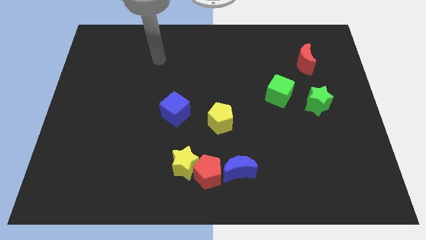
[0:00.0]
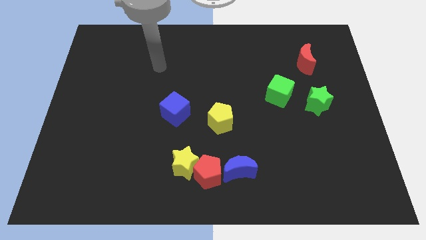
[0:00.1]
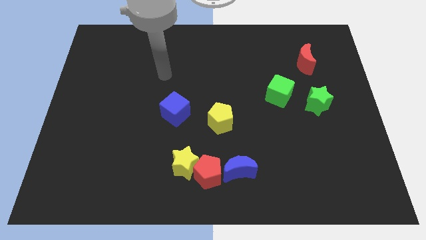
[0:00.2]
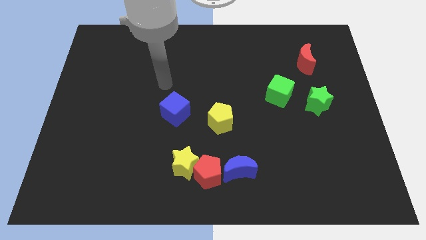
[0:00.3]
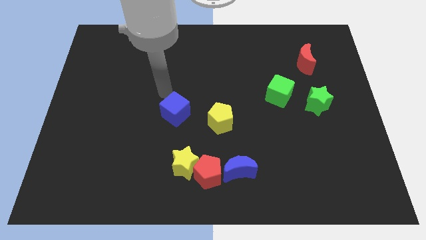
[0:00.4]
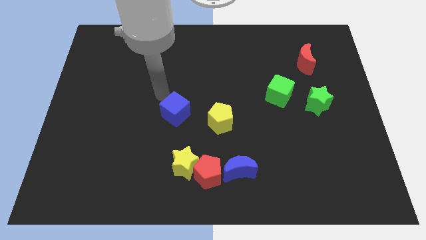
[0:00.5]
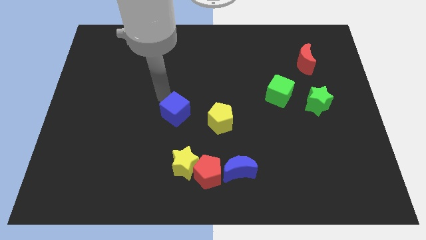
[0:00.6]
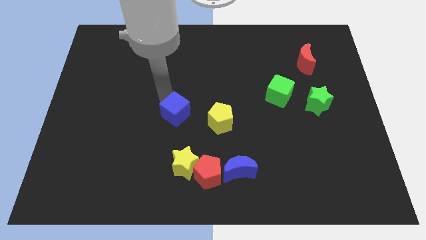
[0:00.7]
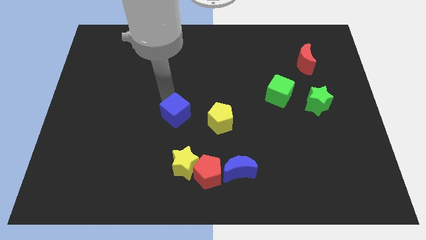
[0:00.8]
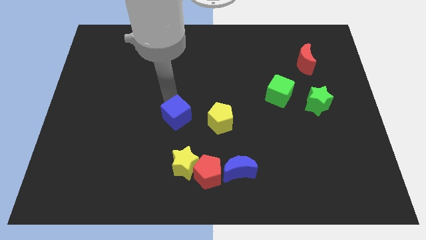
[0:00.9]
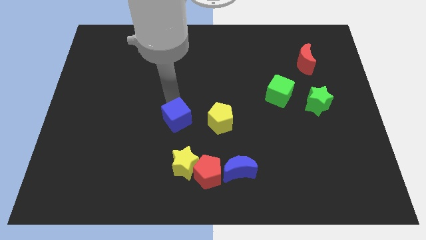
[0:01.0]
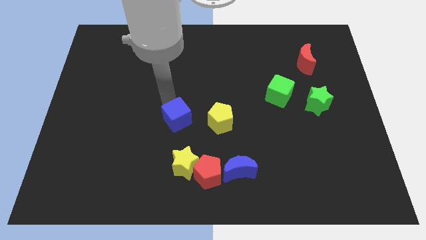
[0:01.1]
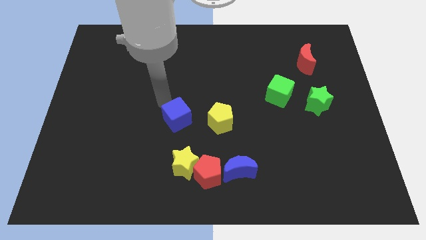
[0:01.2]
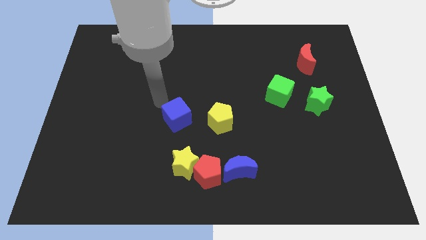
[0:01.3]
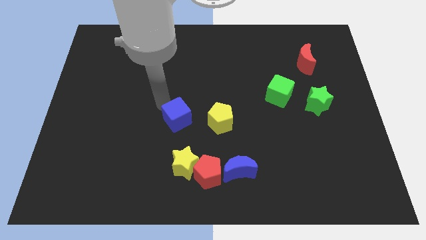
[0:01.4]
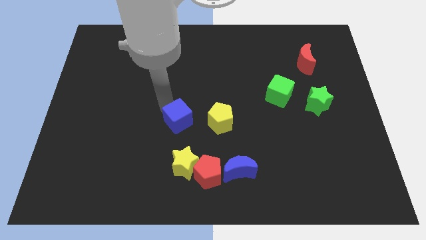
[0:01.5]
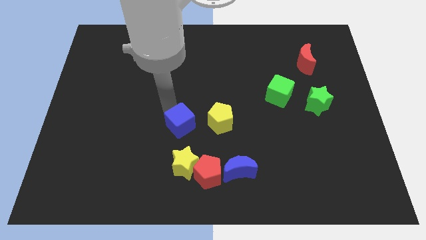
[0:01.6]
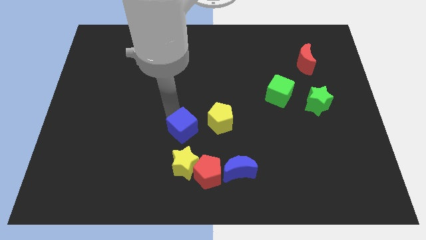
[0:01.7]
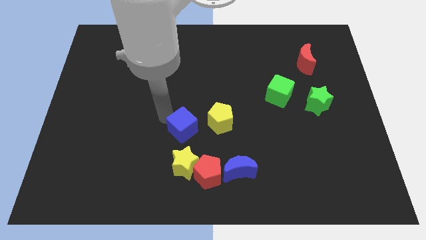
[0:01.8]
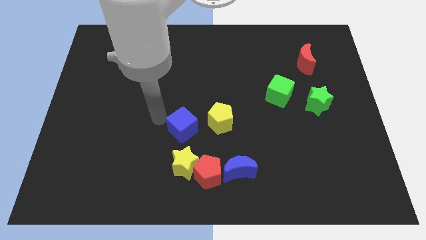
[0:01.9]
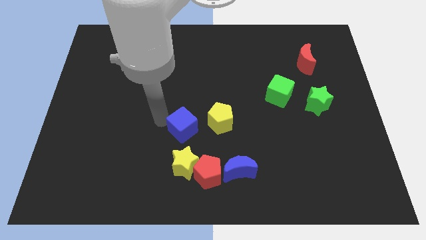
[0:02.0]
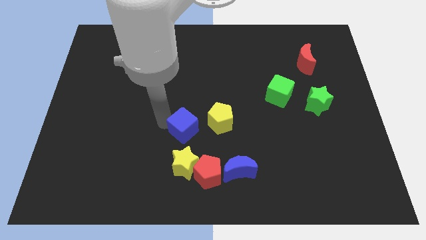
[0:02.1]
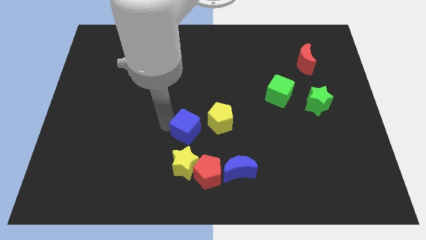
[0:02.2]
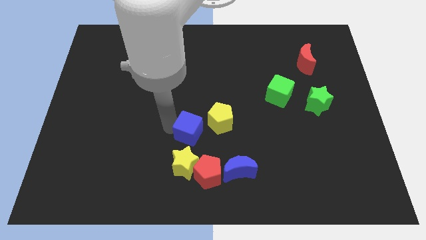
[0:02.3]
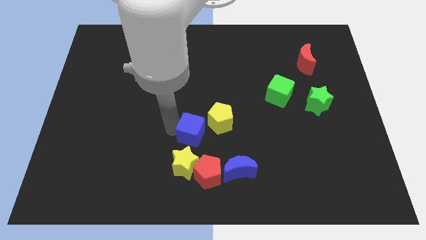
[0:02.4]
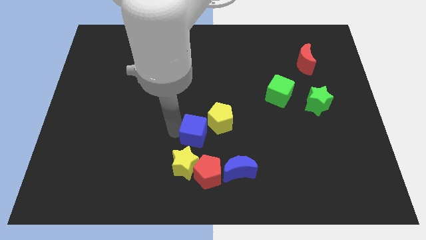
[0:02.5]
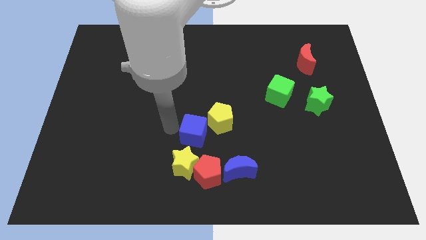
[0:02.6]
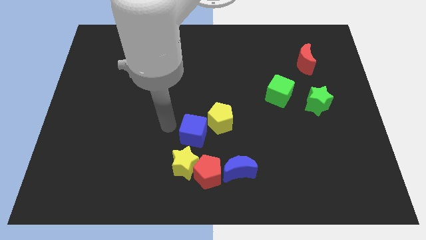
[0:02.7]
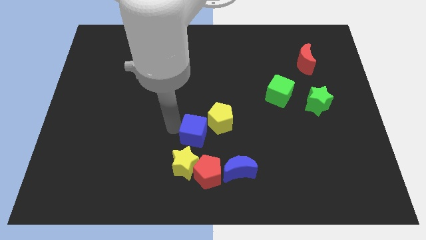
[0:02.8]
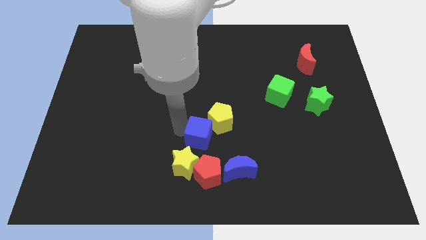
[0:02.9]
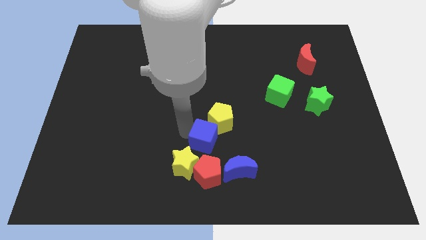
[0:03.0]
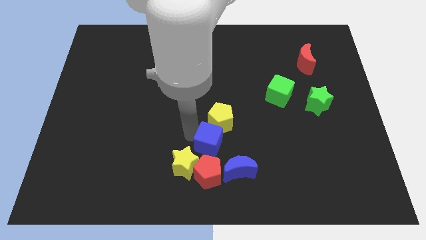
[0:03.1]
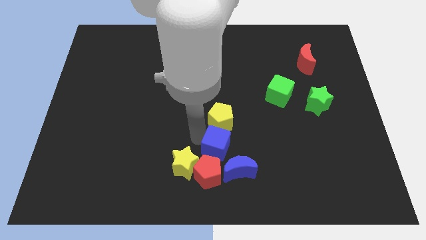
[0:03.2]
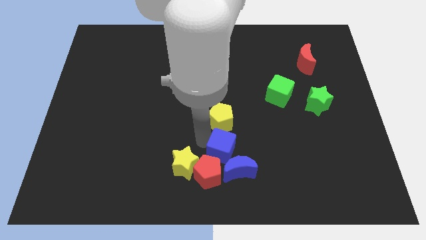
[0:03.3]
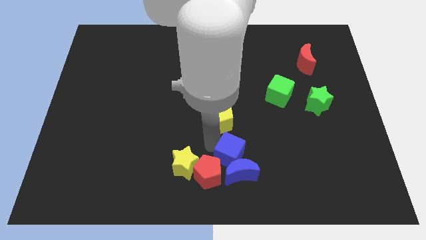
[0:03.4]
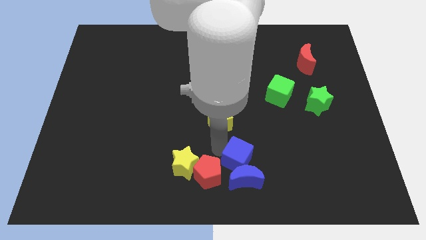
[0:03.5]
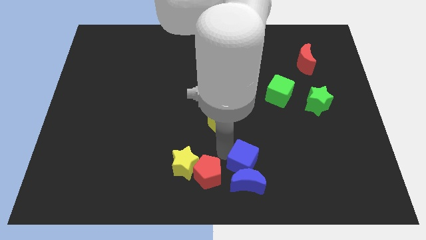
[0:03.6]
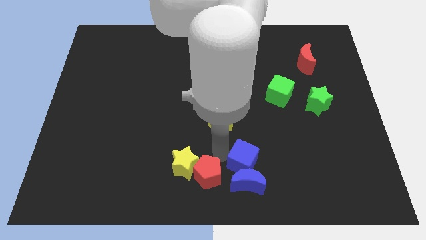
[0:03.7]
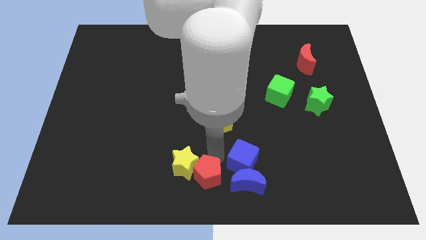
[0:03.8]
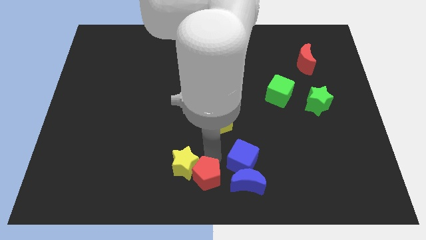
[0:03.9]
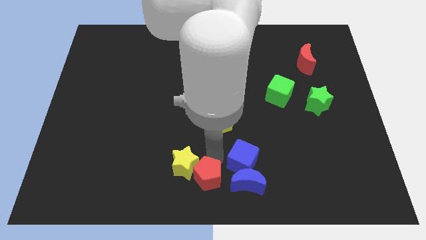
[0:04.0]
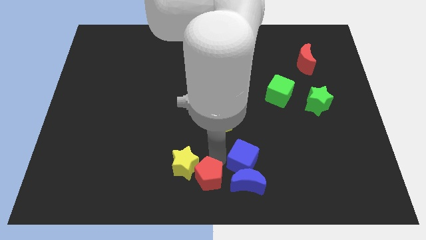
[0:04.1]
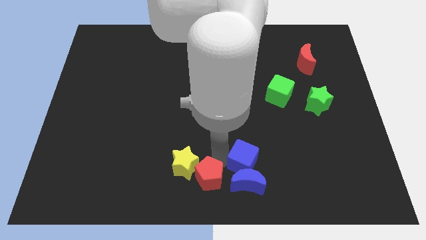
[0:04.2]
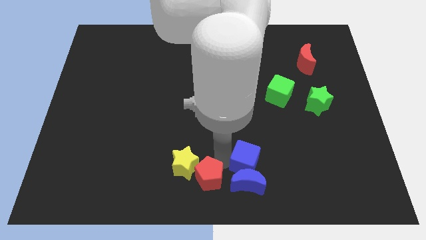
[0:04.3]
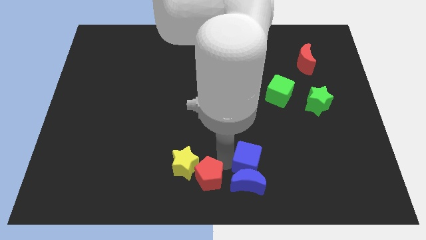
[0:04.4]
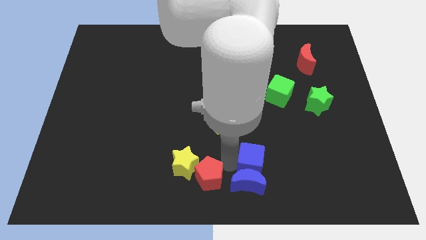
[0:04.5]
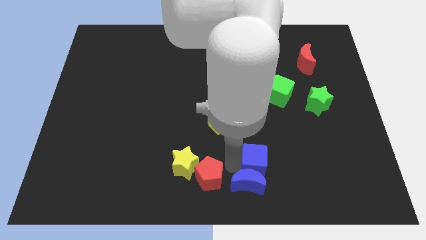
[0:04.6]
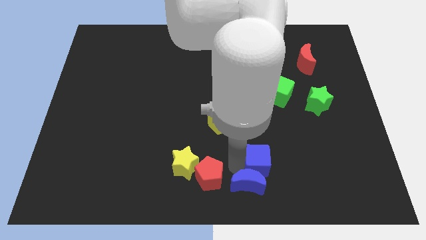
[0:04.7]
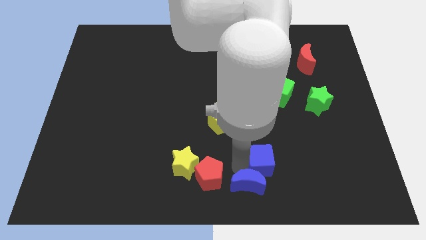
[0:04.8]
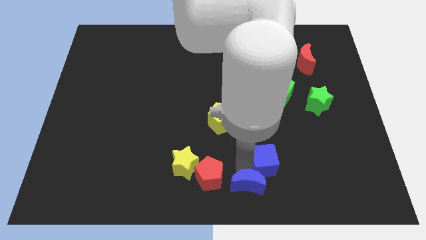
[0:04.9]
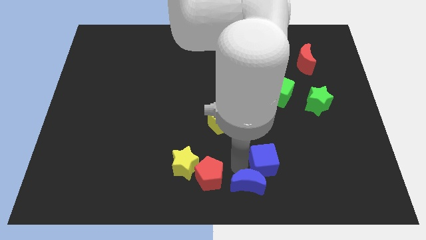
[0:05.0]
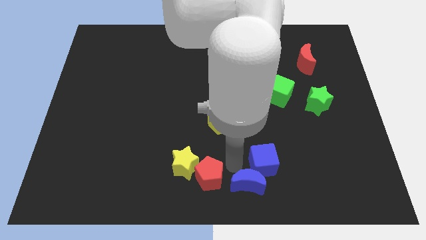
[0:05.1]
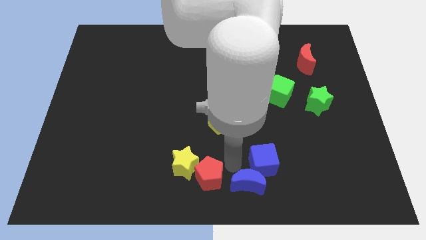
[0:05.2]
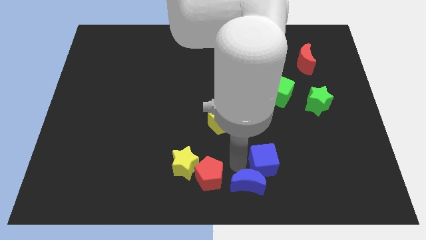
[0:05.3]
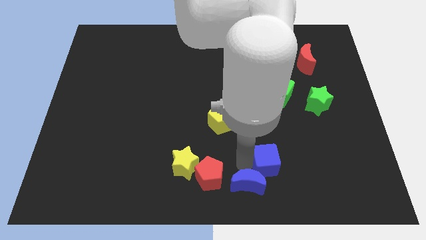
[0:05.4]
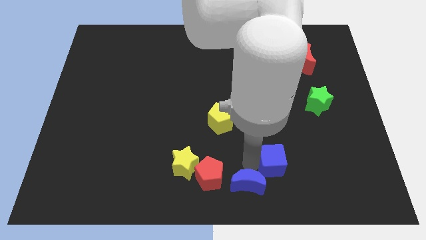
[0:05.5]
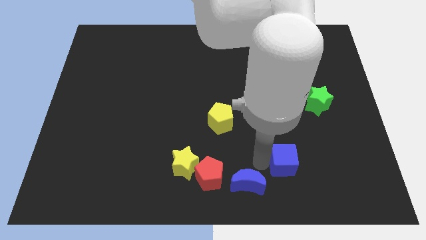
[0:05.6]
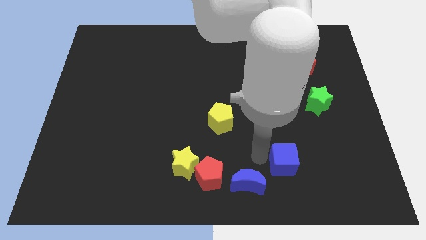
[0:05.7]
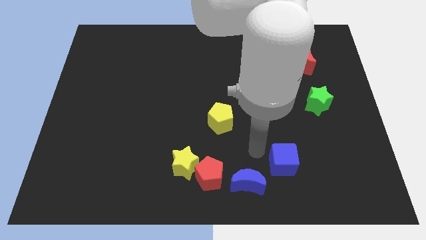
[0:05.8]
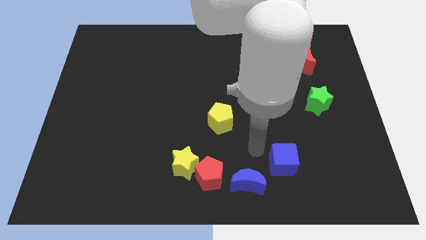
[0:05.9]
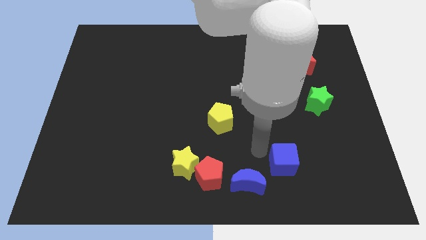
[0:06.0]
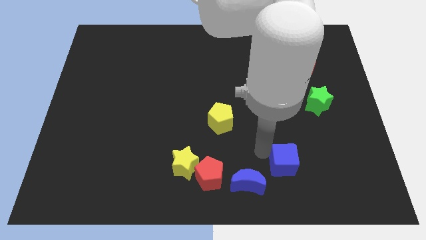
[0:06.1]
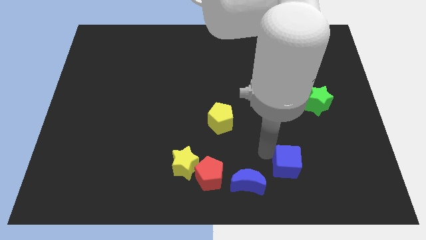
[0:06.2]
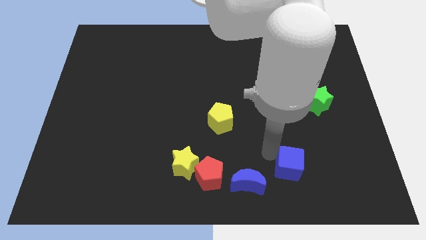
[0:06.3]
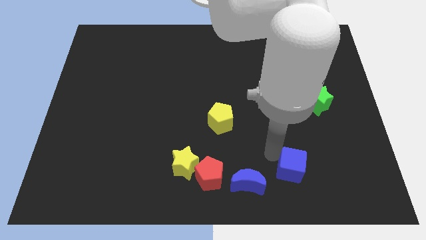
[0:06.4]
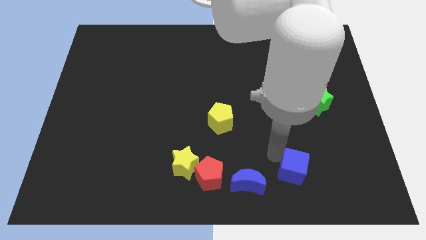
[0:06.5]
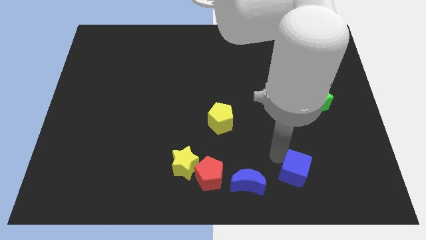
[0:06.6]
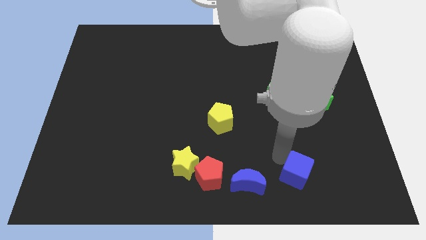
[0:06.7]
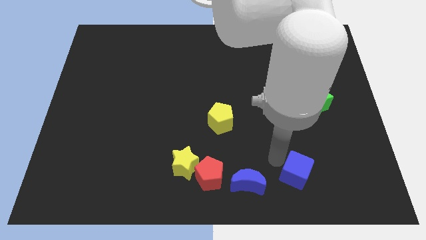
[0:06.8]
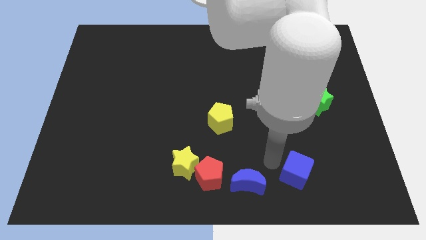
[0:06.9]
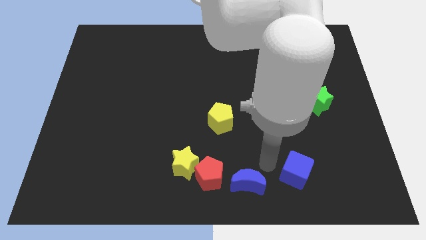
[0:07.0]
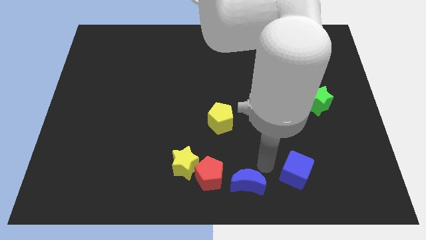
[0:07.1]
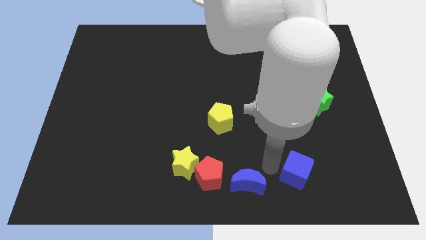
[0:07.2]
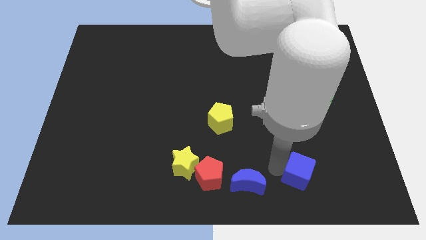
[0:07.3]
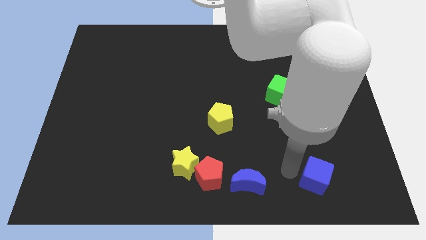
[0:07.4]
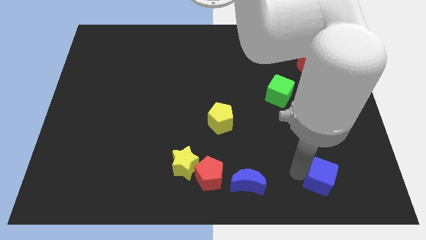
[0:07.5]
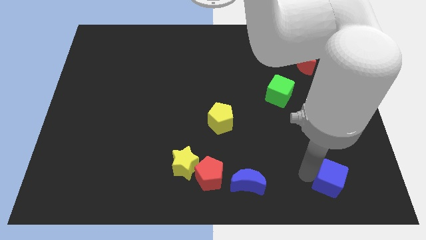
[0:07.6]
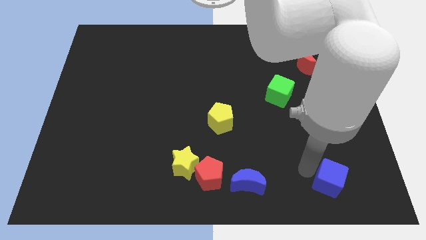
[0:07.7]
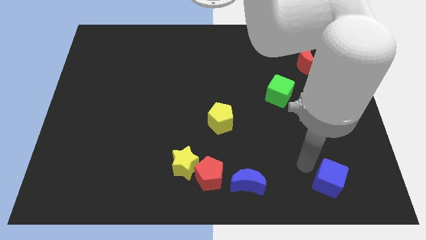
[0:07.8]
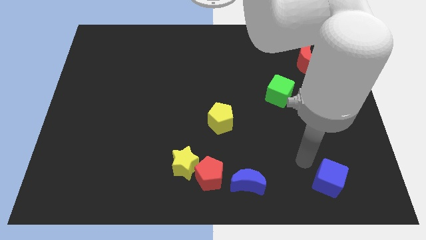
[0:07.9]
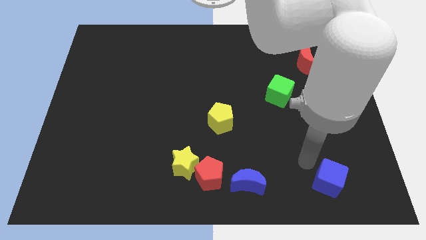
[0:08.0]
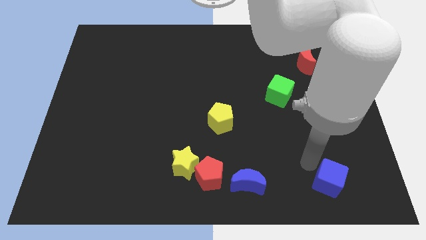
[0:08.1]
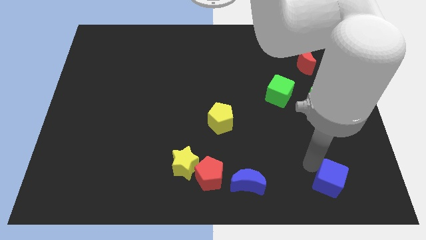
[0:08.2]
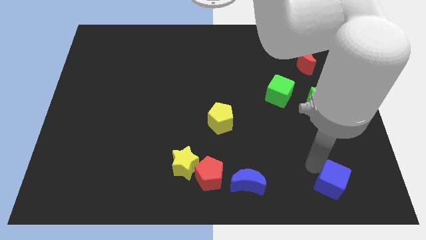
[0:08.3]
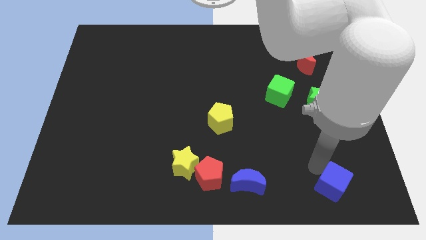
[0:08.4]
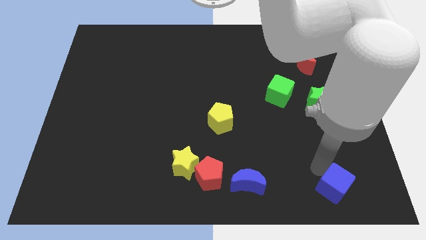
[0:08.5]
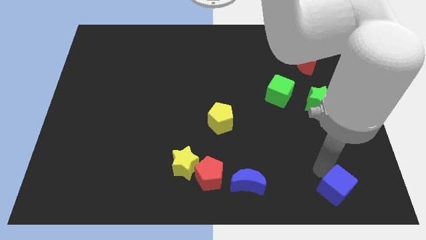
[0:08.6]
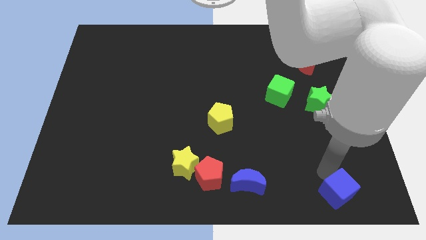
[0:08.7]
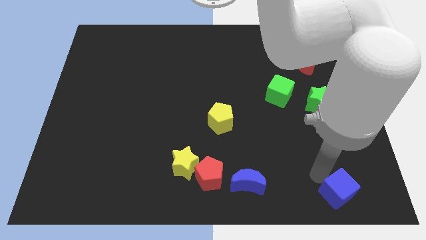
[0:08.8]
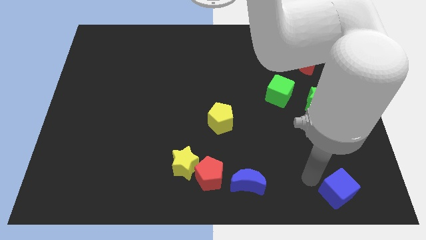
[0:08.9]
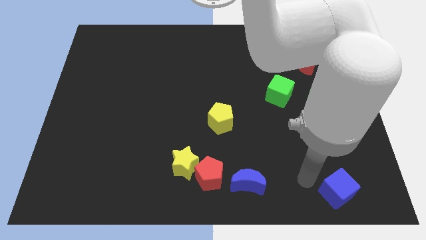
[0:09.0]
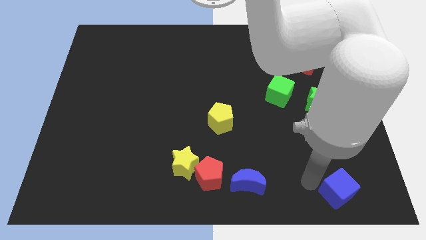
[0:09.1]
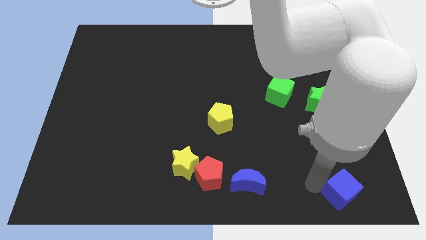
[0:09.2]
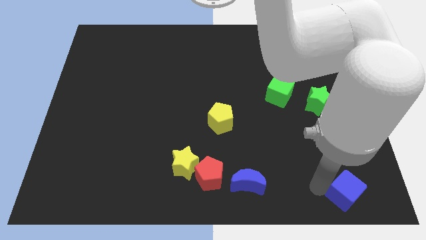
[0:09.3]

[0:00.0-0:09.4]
move the blue cube to the bottom right of the board
